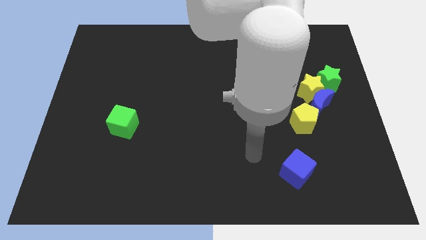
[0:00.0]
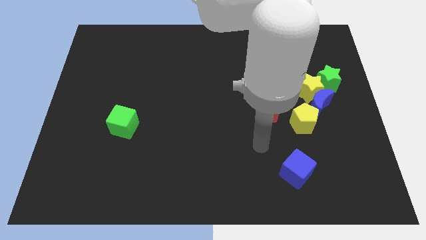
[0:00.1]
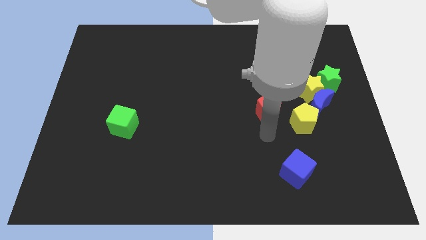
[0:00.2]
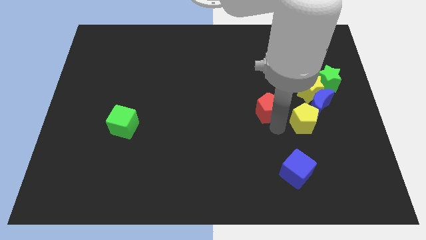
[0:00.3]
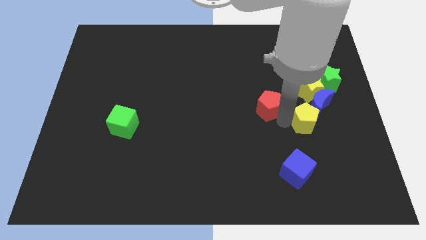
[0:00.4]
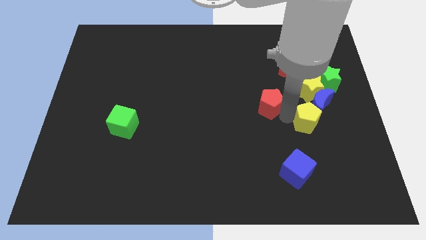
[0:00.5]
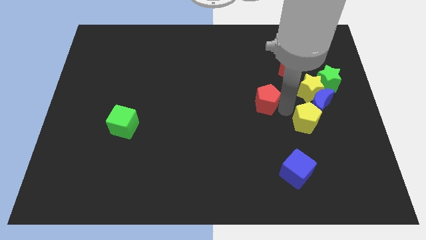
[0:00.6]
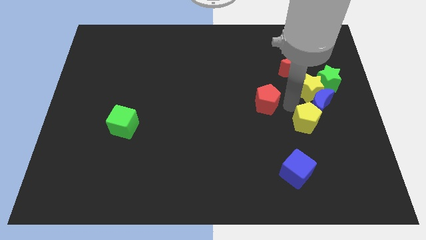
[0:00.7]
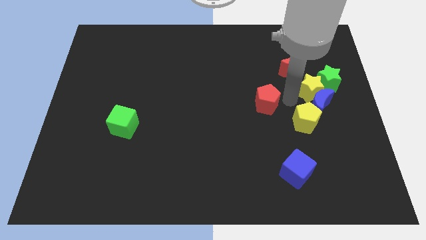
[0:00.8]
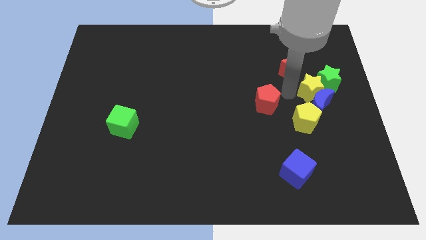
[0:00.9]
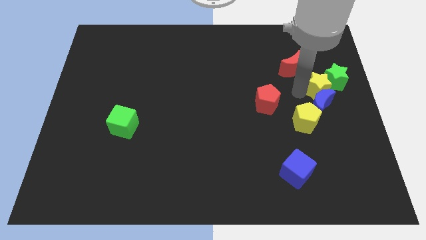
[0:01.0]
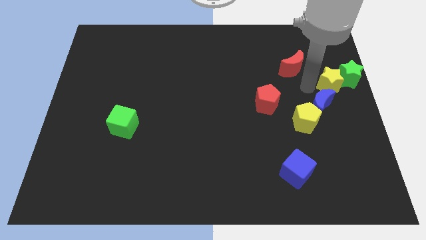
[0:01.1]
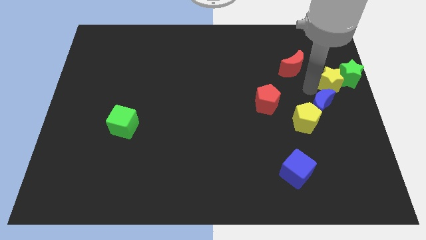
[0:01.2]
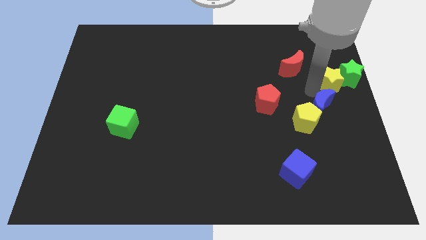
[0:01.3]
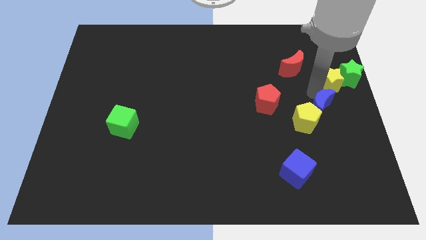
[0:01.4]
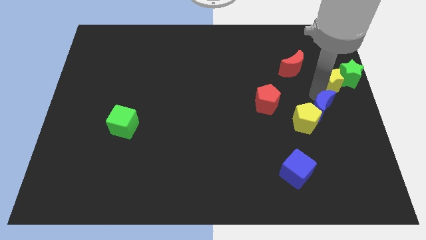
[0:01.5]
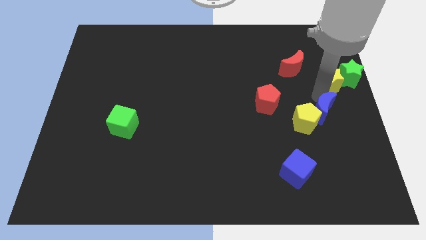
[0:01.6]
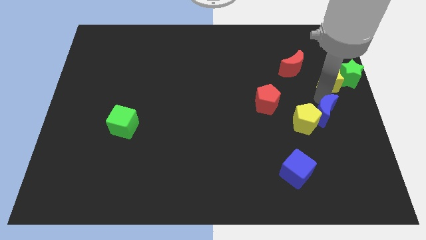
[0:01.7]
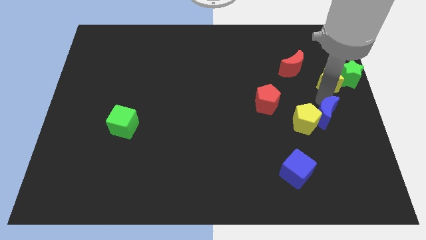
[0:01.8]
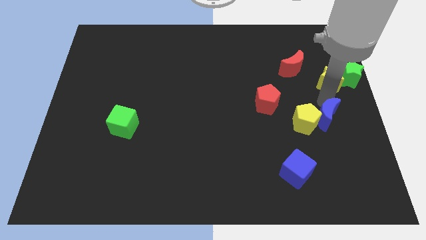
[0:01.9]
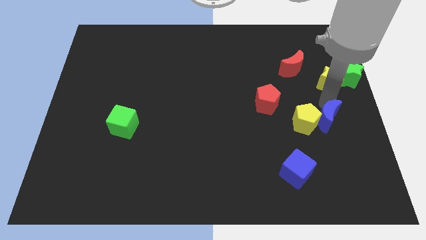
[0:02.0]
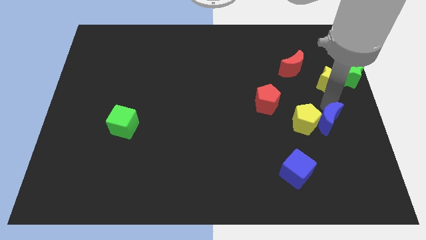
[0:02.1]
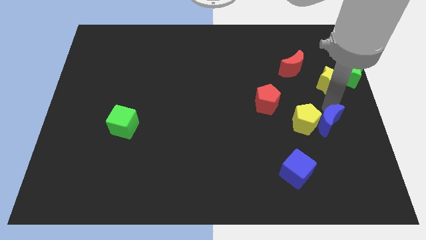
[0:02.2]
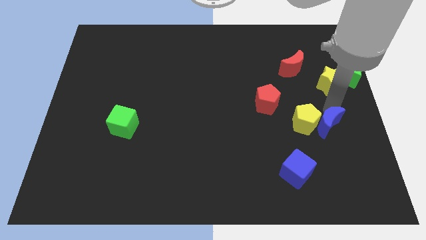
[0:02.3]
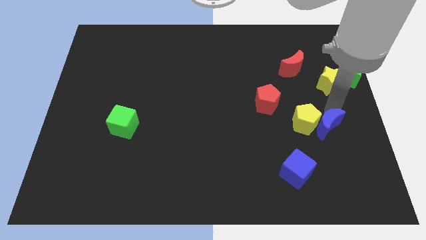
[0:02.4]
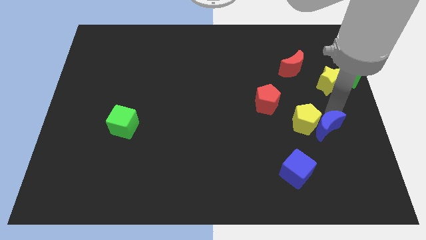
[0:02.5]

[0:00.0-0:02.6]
separate the blue moon from the yellow star, yellow pentagon, and green star

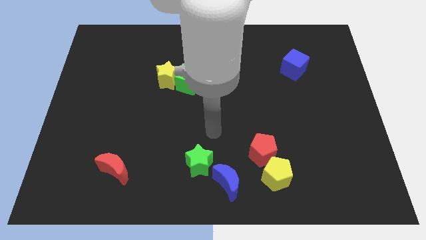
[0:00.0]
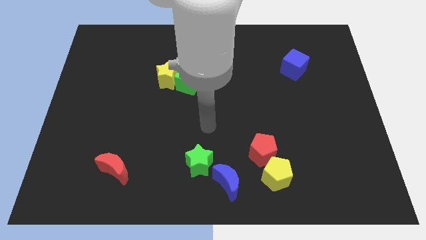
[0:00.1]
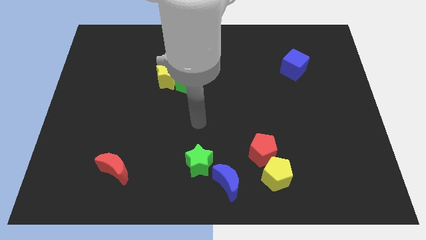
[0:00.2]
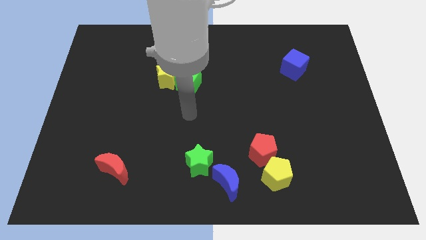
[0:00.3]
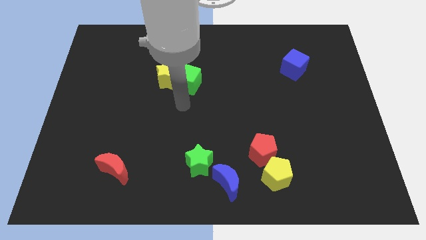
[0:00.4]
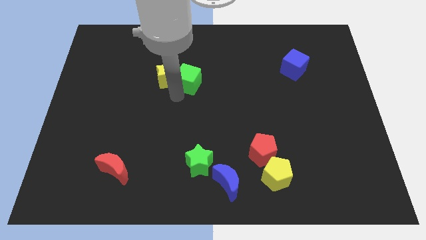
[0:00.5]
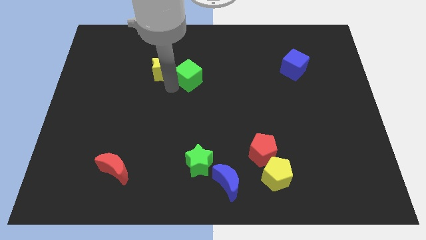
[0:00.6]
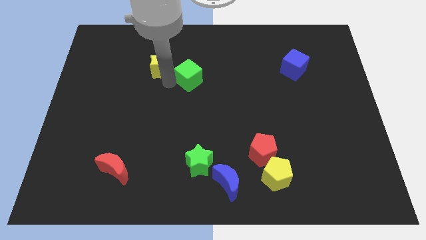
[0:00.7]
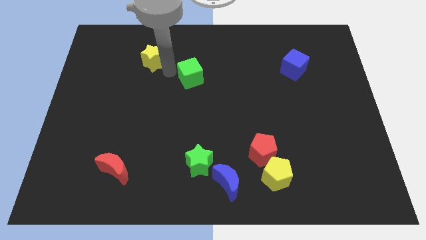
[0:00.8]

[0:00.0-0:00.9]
pull the green cube apart from the yellow star

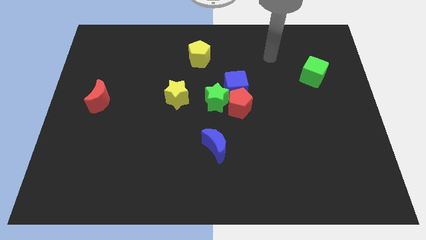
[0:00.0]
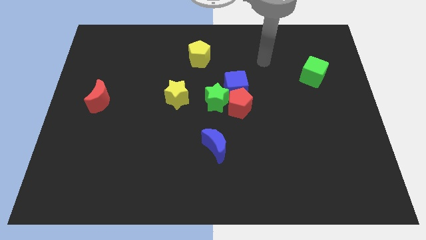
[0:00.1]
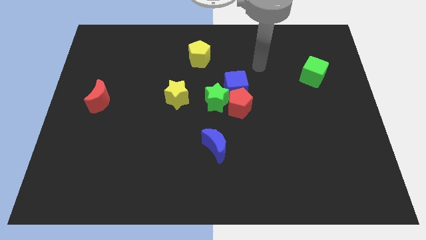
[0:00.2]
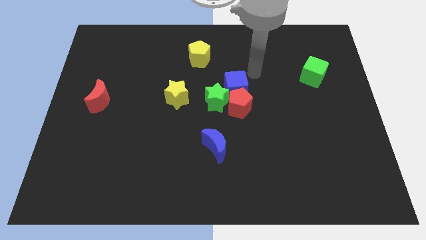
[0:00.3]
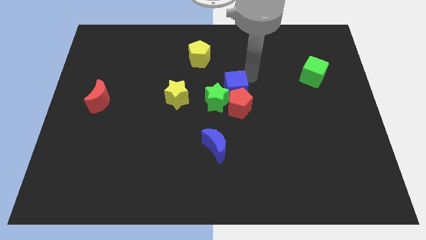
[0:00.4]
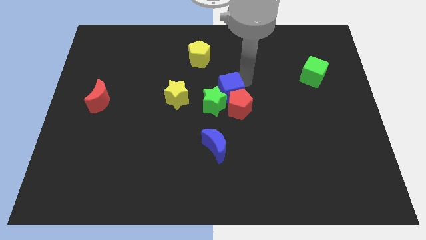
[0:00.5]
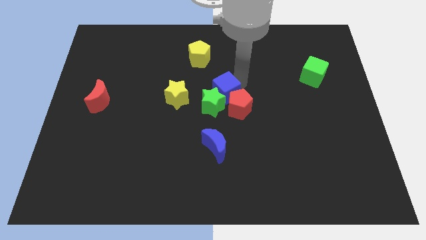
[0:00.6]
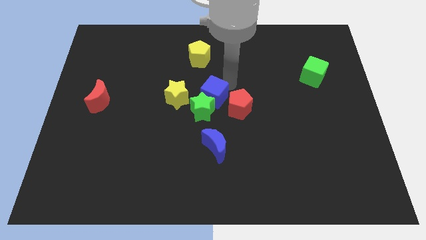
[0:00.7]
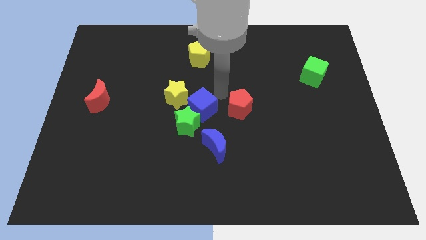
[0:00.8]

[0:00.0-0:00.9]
separate the red pentagon from the blue cube and green star

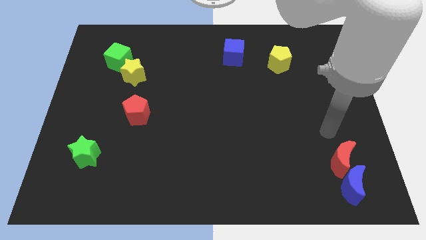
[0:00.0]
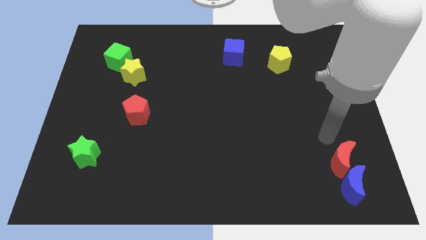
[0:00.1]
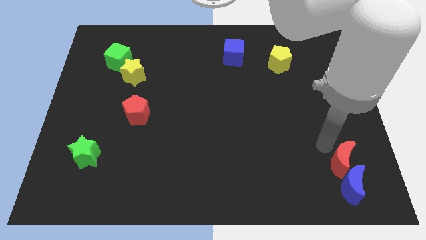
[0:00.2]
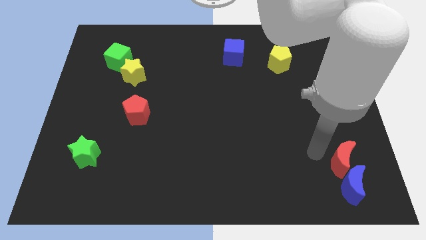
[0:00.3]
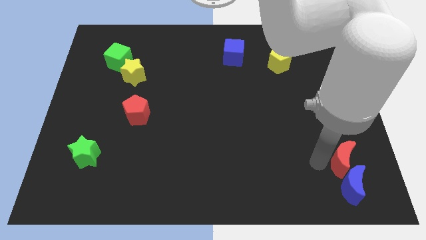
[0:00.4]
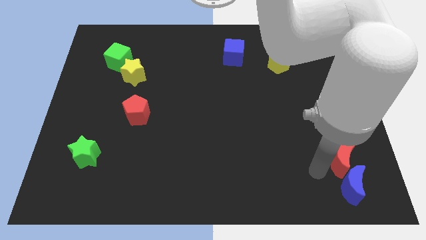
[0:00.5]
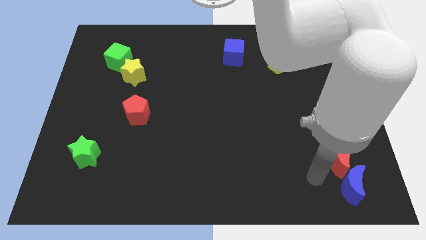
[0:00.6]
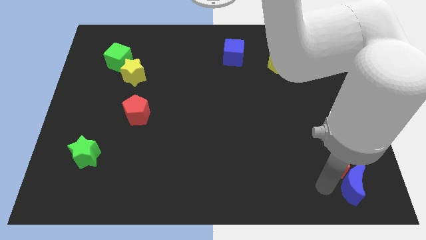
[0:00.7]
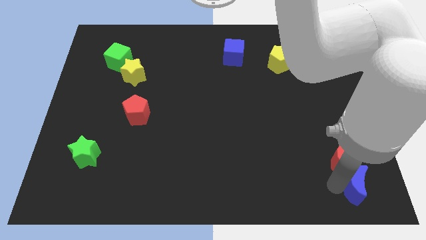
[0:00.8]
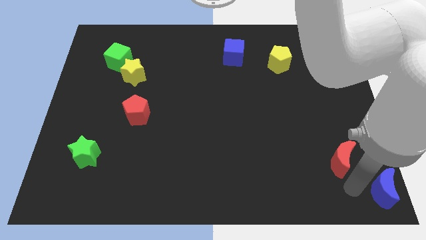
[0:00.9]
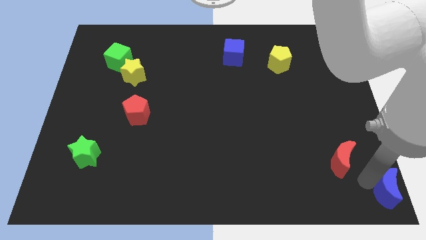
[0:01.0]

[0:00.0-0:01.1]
move the red moon away from the blue moon

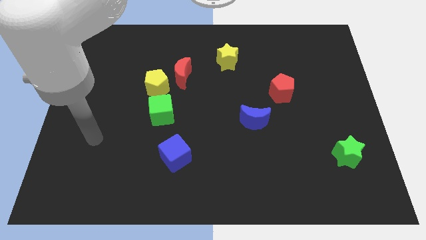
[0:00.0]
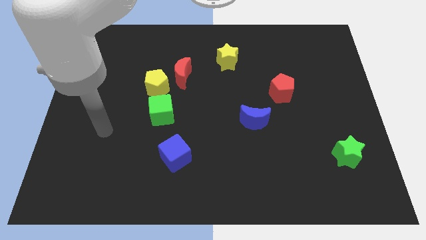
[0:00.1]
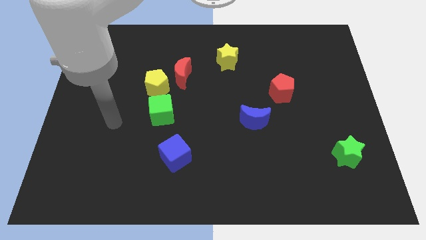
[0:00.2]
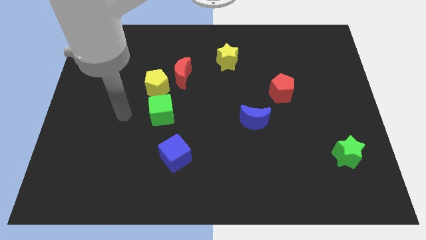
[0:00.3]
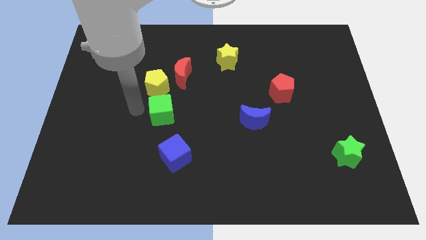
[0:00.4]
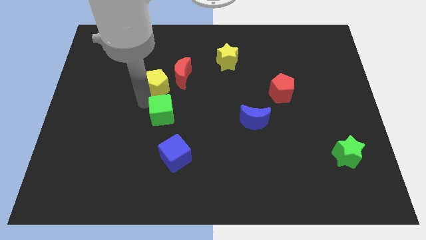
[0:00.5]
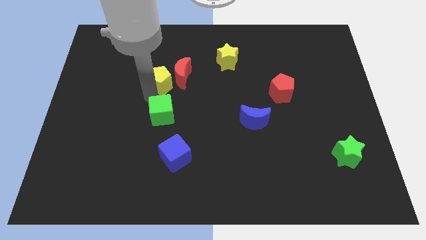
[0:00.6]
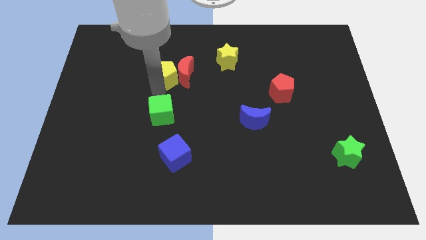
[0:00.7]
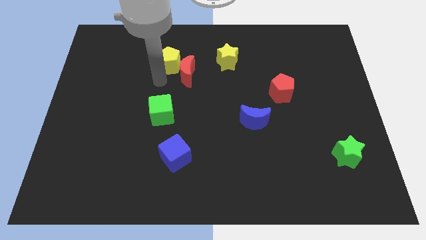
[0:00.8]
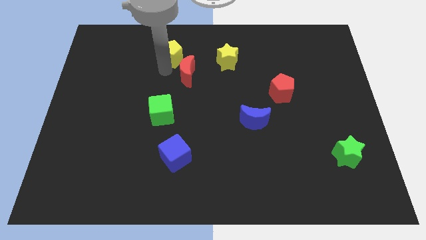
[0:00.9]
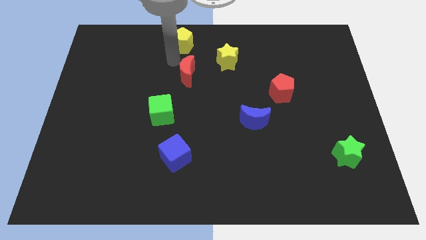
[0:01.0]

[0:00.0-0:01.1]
pull the red moon apart from the yellow pentagon

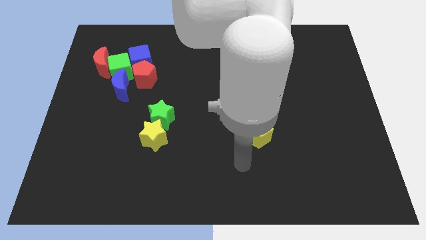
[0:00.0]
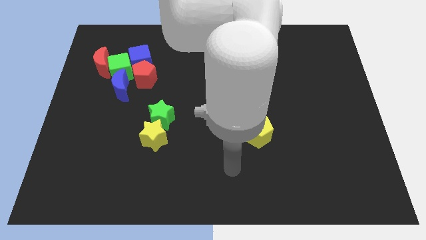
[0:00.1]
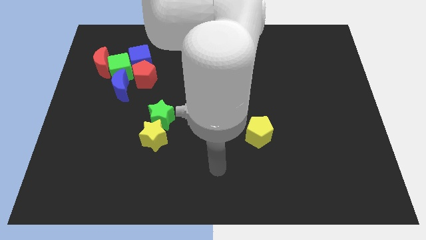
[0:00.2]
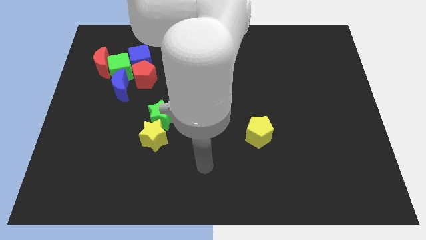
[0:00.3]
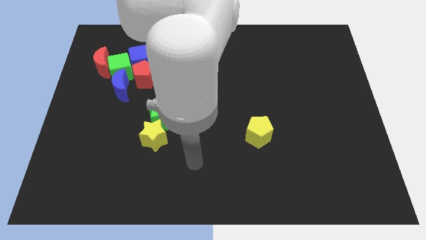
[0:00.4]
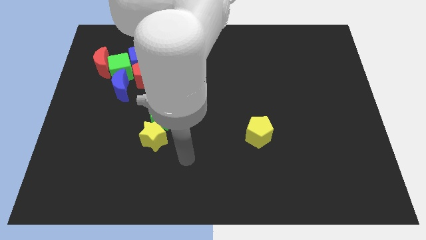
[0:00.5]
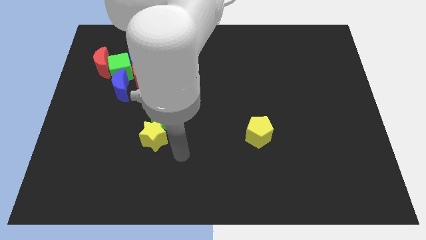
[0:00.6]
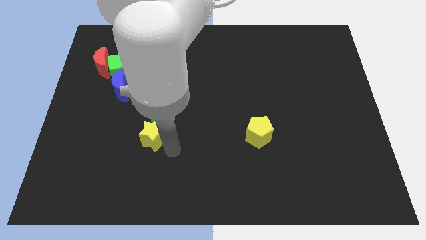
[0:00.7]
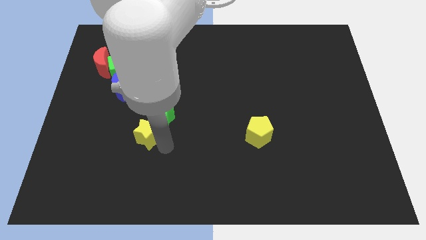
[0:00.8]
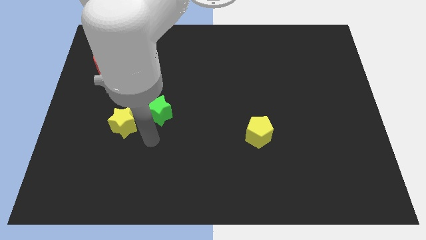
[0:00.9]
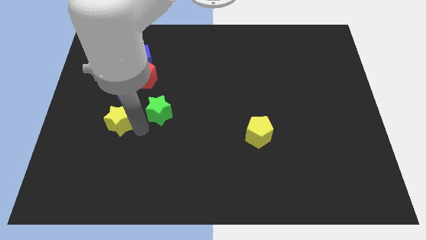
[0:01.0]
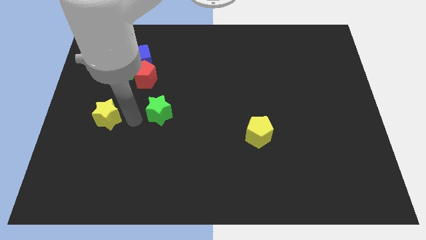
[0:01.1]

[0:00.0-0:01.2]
move the green star away from the yellow star

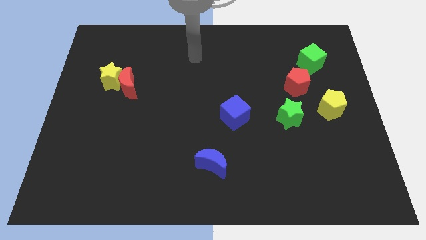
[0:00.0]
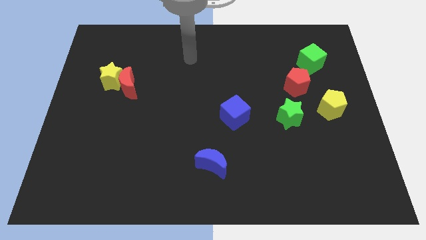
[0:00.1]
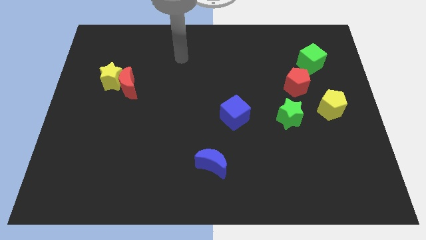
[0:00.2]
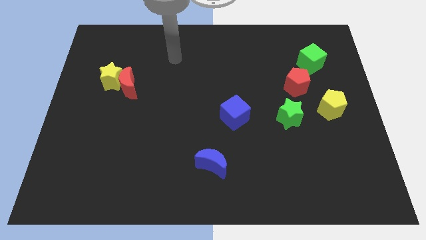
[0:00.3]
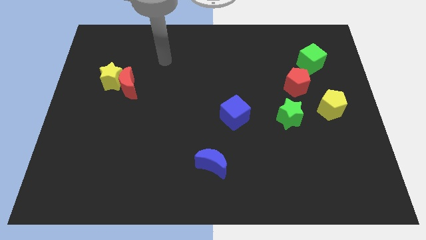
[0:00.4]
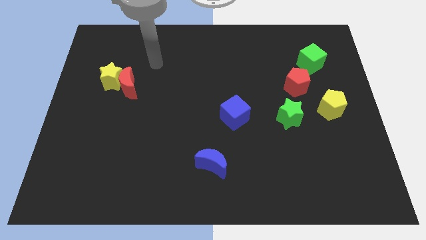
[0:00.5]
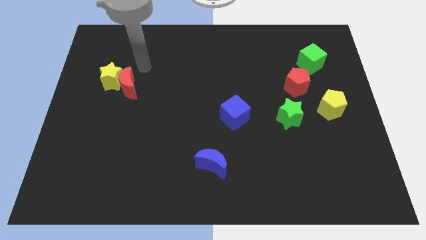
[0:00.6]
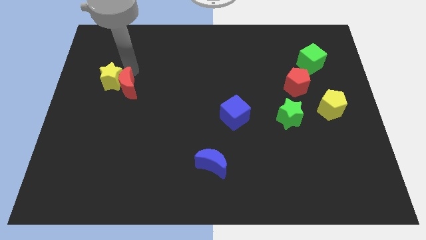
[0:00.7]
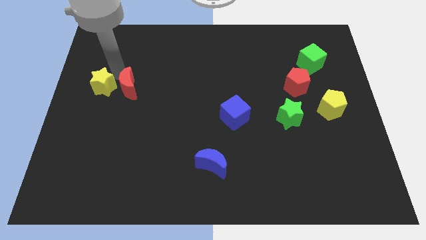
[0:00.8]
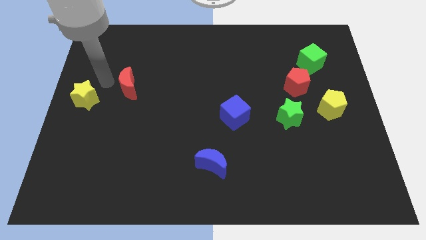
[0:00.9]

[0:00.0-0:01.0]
separate the red moon from the yellow star

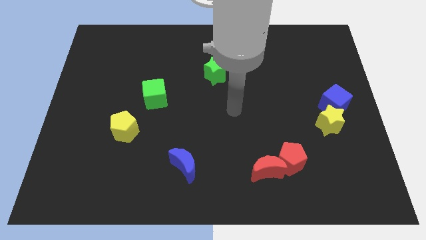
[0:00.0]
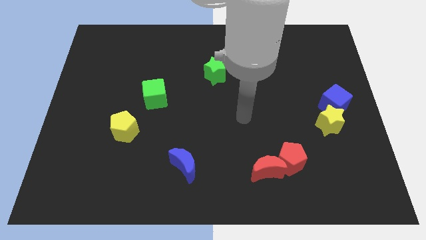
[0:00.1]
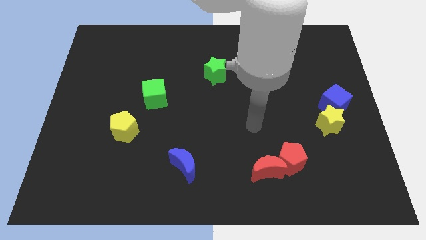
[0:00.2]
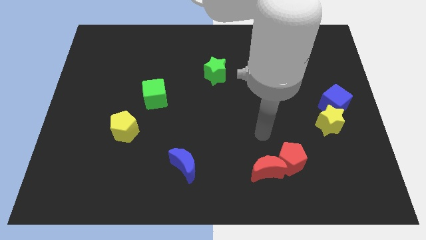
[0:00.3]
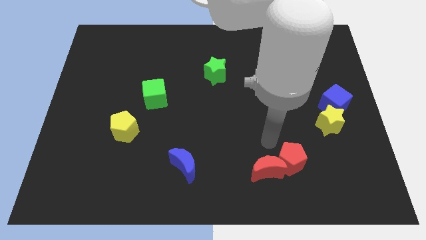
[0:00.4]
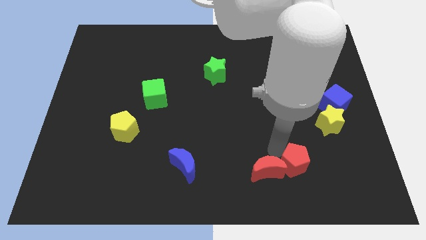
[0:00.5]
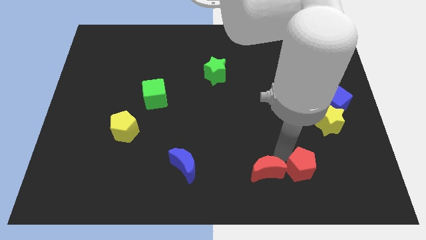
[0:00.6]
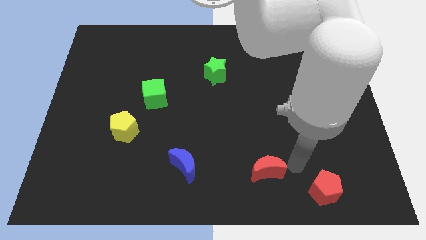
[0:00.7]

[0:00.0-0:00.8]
pull the red moon apart from the red pentagon
